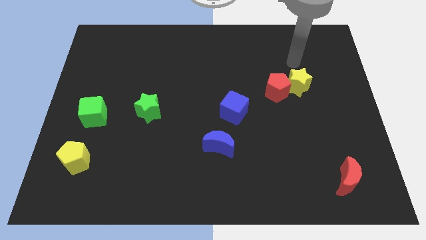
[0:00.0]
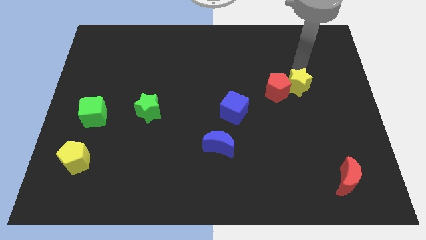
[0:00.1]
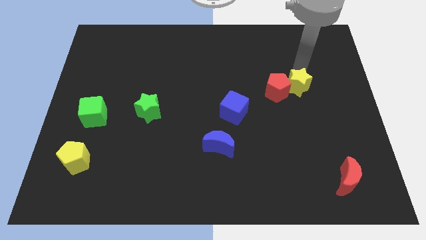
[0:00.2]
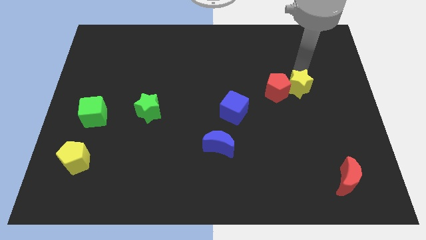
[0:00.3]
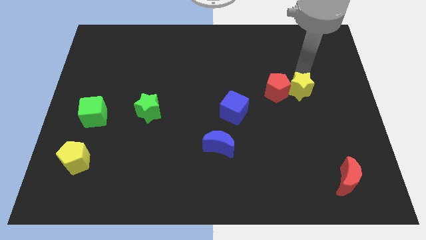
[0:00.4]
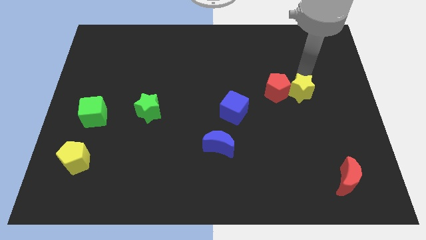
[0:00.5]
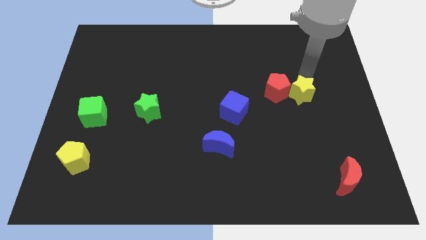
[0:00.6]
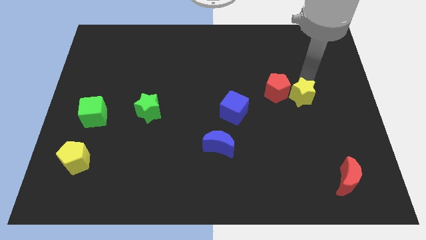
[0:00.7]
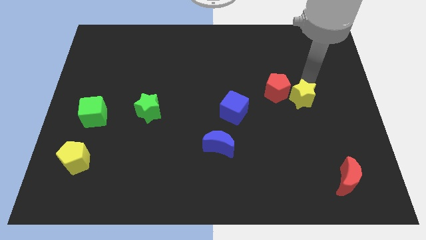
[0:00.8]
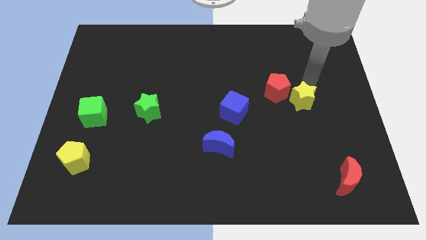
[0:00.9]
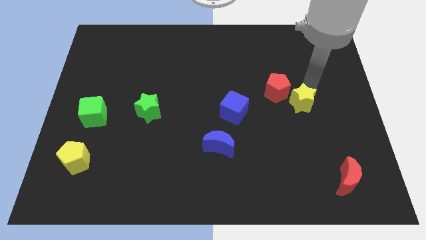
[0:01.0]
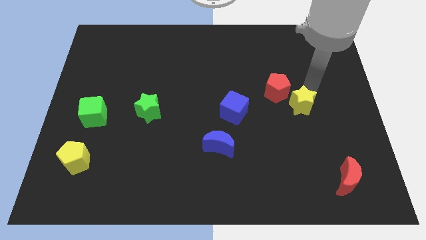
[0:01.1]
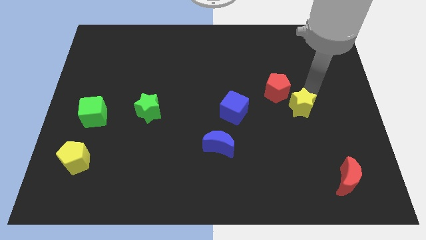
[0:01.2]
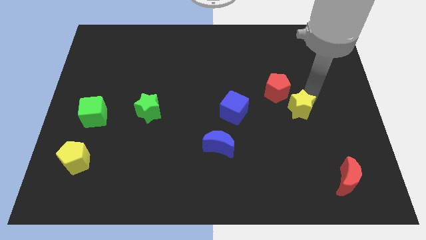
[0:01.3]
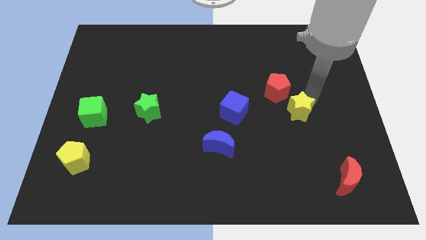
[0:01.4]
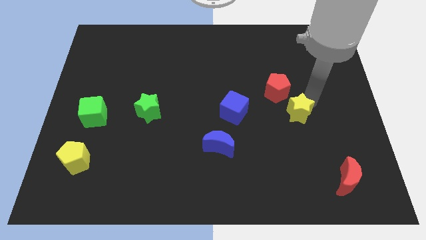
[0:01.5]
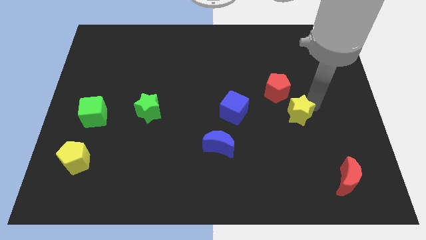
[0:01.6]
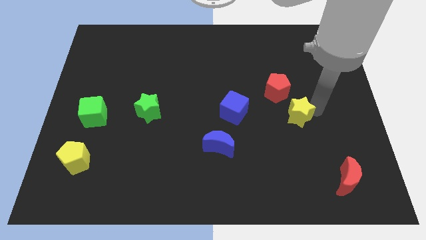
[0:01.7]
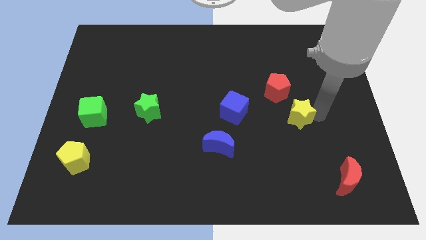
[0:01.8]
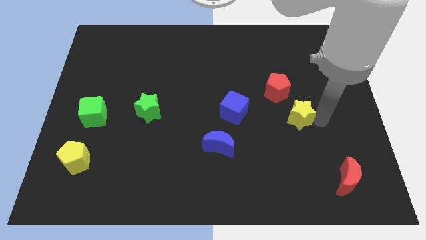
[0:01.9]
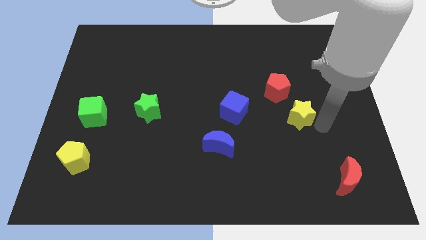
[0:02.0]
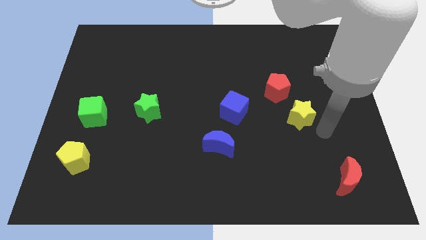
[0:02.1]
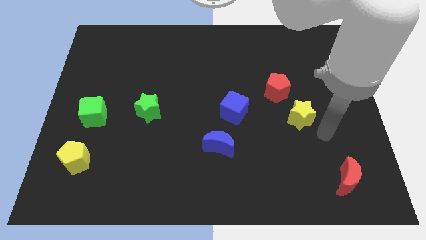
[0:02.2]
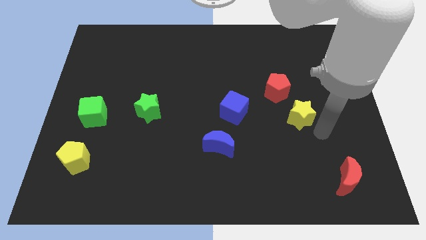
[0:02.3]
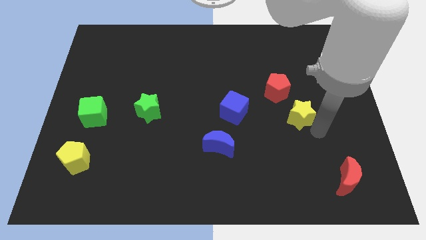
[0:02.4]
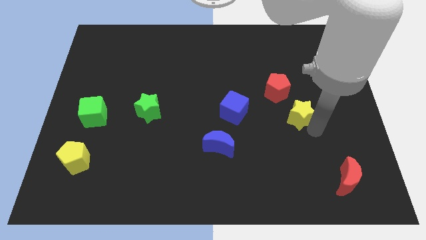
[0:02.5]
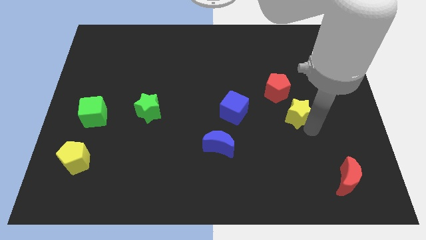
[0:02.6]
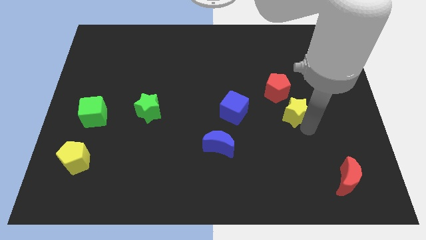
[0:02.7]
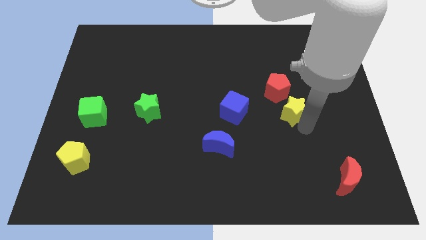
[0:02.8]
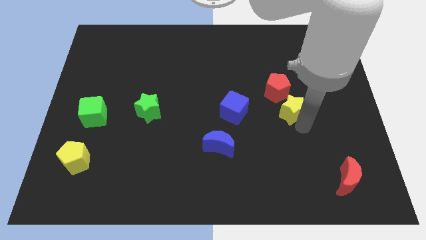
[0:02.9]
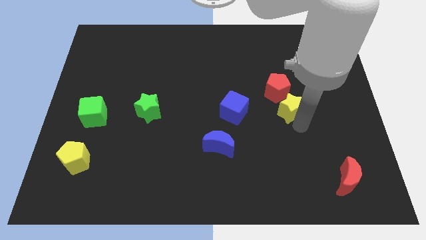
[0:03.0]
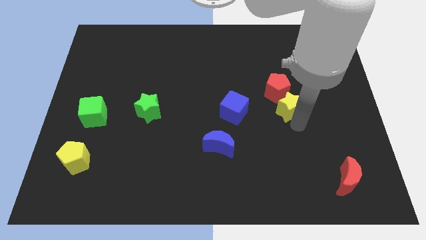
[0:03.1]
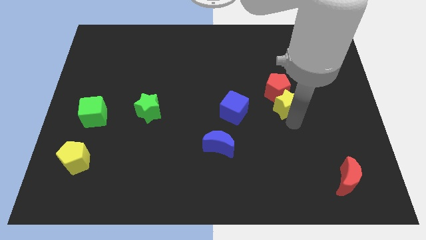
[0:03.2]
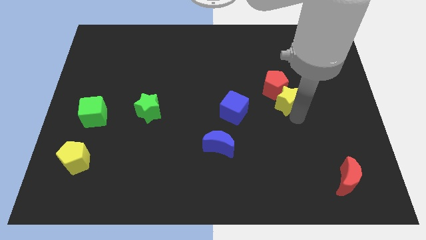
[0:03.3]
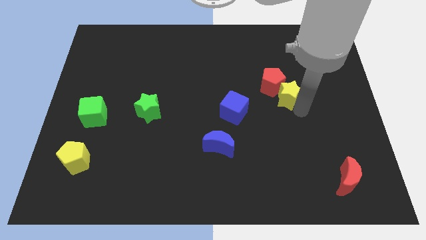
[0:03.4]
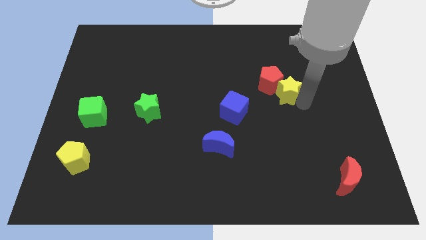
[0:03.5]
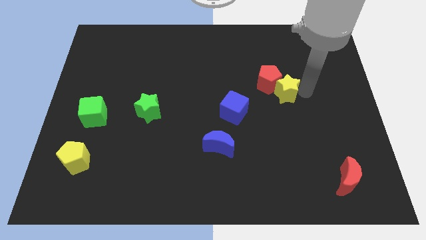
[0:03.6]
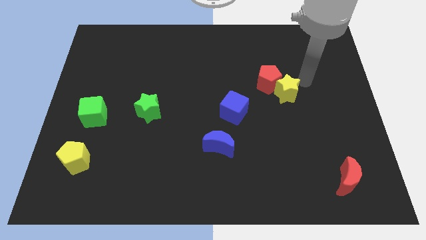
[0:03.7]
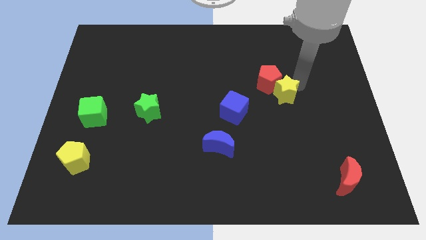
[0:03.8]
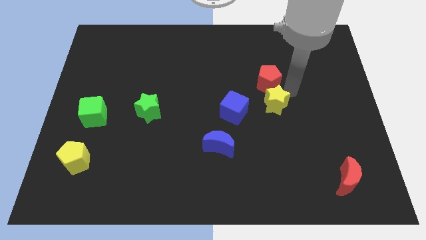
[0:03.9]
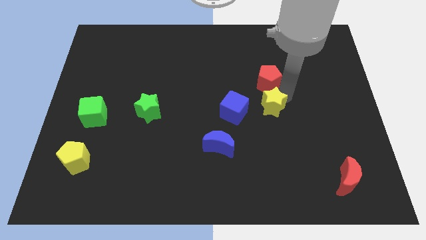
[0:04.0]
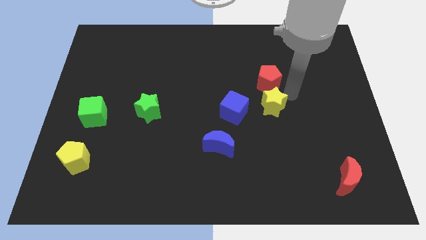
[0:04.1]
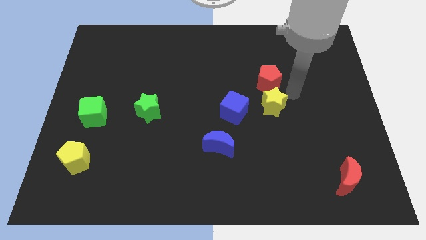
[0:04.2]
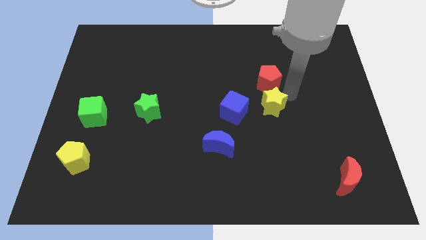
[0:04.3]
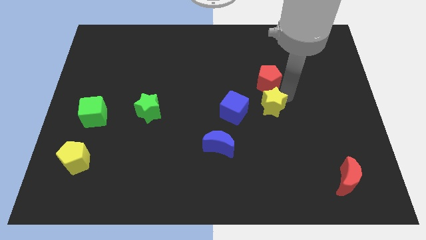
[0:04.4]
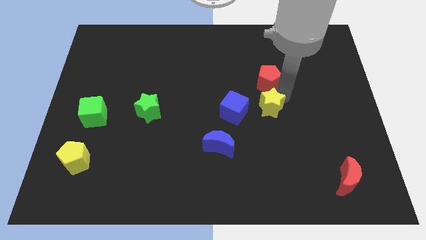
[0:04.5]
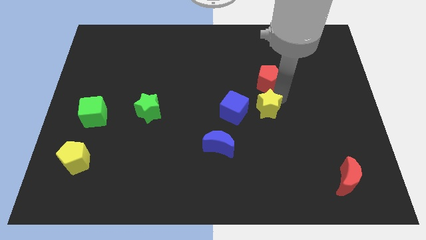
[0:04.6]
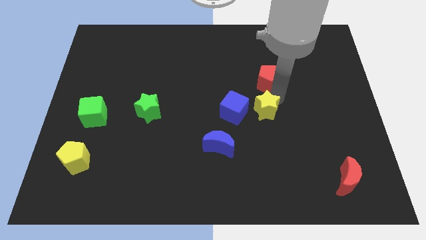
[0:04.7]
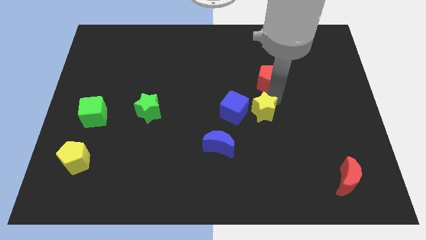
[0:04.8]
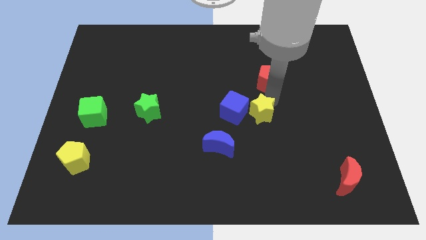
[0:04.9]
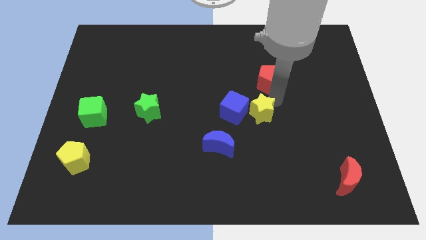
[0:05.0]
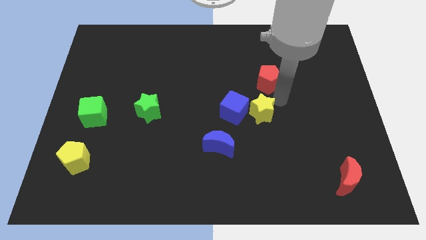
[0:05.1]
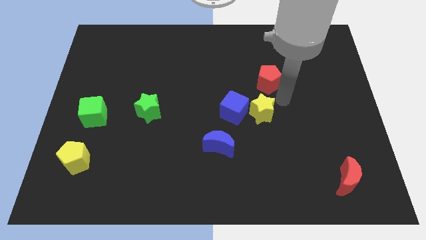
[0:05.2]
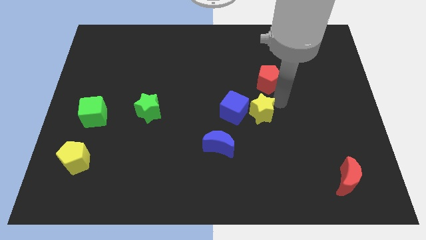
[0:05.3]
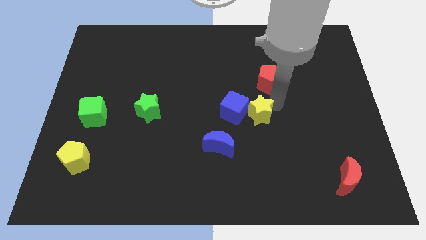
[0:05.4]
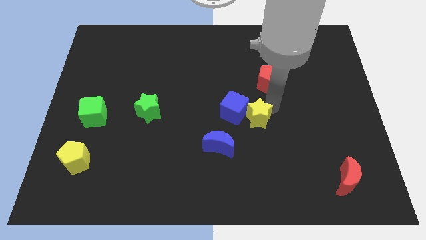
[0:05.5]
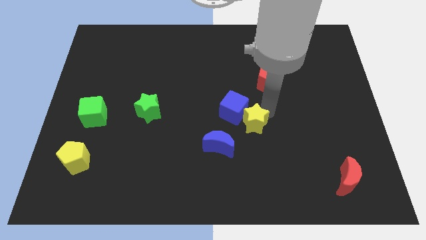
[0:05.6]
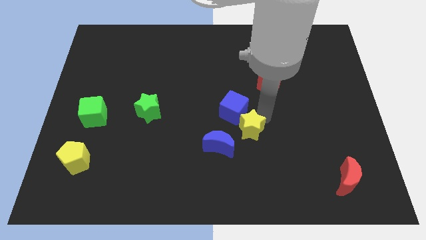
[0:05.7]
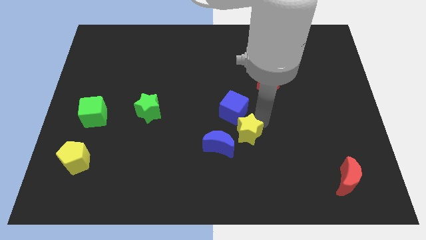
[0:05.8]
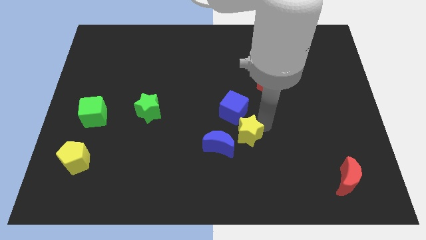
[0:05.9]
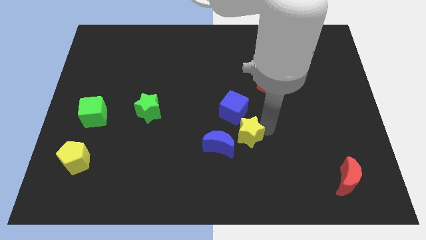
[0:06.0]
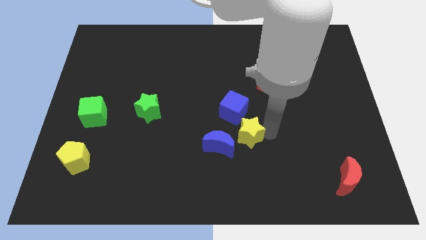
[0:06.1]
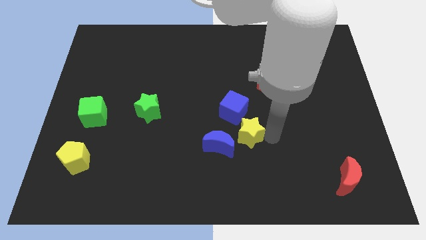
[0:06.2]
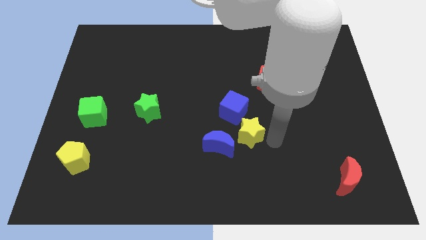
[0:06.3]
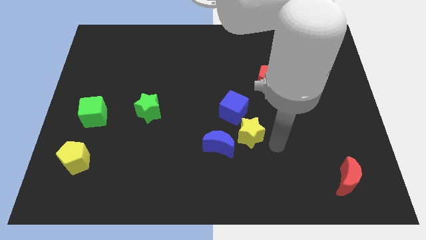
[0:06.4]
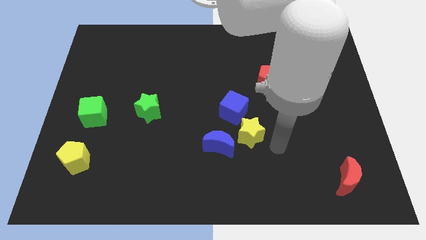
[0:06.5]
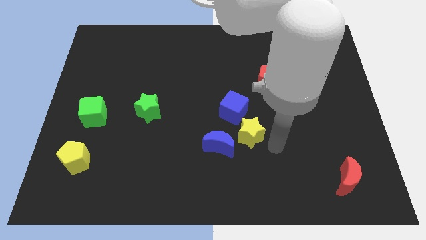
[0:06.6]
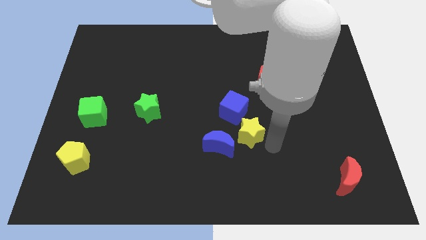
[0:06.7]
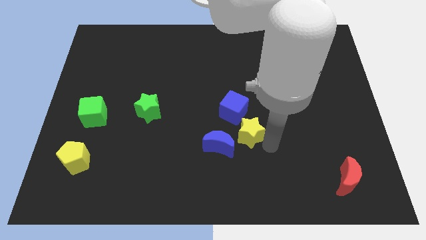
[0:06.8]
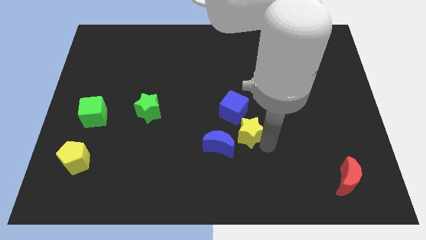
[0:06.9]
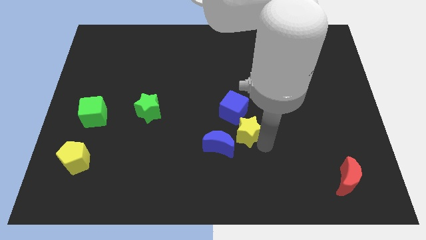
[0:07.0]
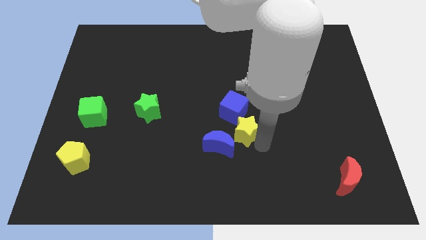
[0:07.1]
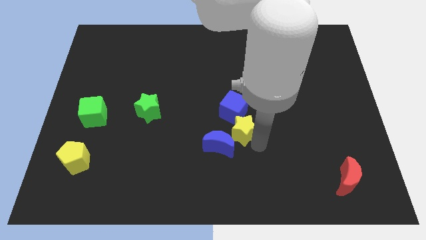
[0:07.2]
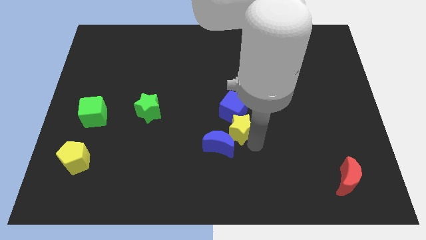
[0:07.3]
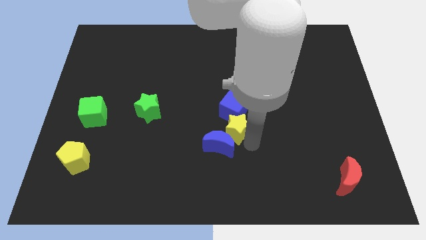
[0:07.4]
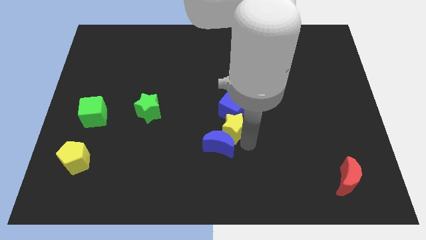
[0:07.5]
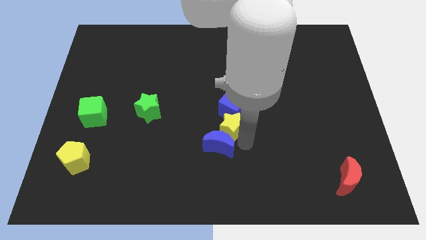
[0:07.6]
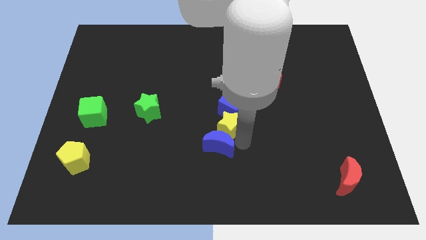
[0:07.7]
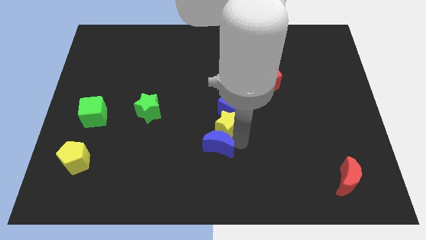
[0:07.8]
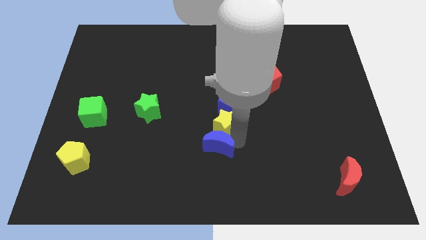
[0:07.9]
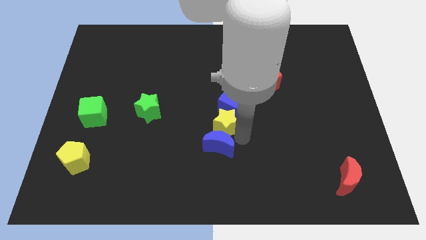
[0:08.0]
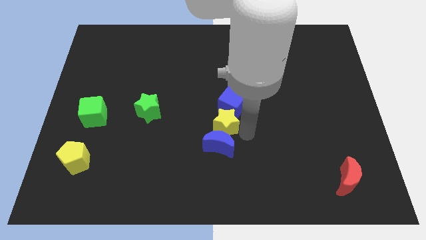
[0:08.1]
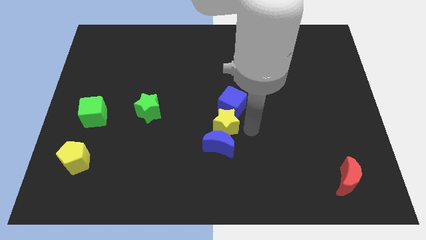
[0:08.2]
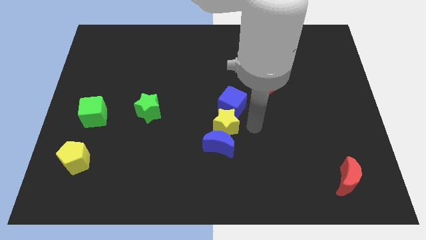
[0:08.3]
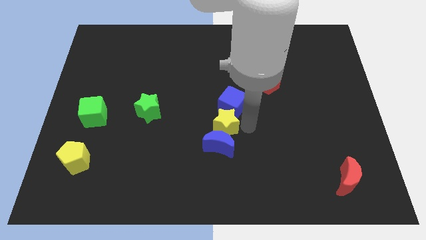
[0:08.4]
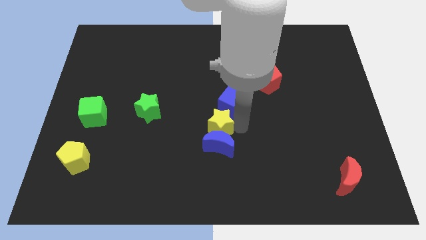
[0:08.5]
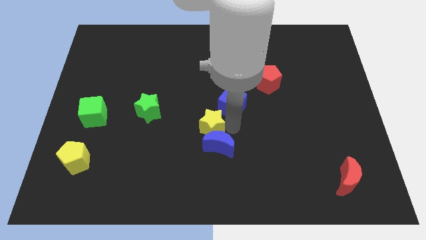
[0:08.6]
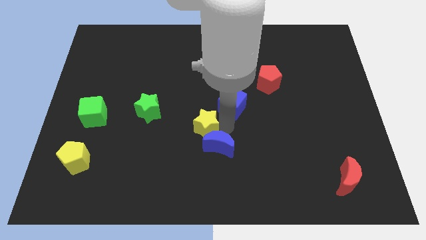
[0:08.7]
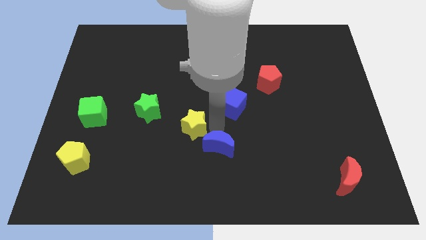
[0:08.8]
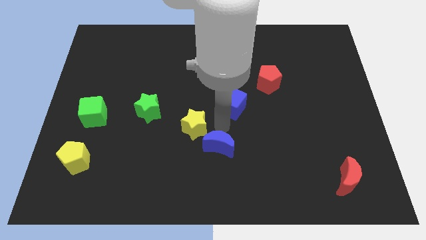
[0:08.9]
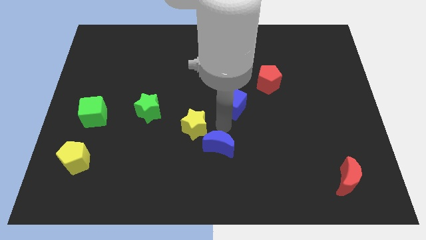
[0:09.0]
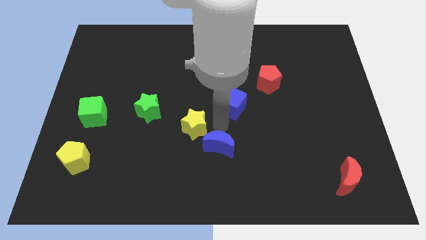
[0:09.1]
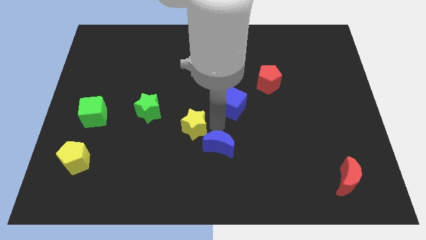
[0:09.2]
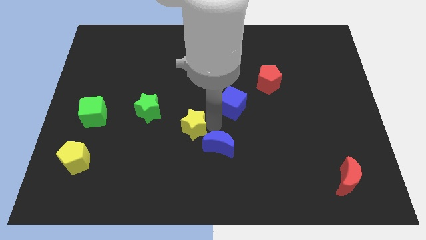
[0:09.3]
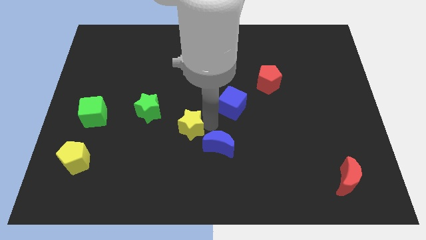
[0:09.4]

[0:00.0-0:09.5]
slide the yellow star diagonally down and to the right of the green star
